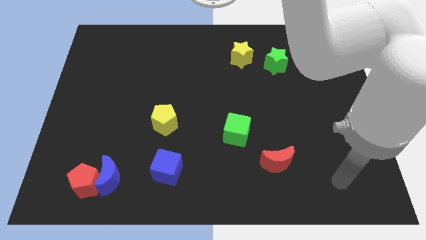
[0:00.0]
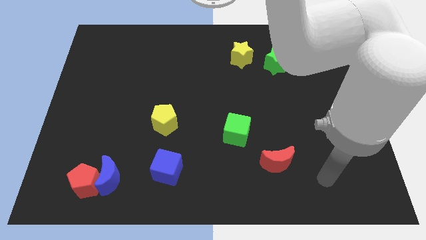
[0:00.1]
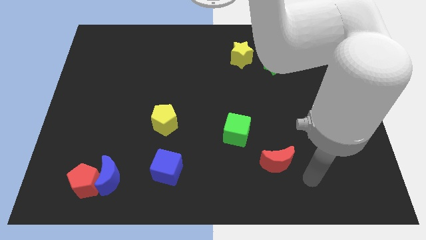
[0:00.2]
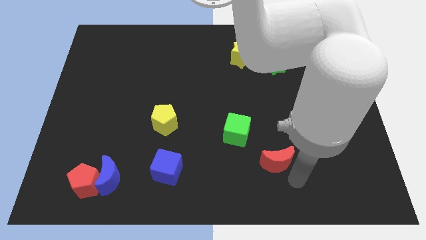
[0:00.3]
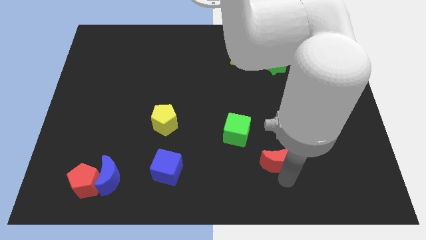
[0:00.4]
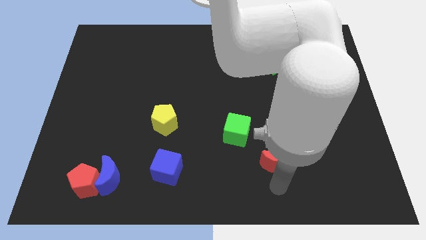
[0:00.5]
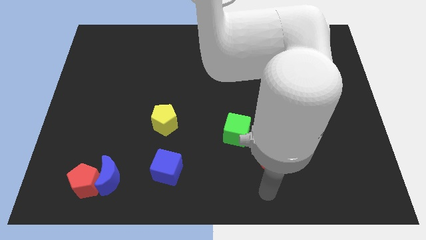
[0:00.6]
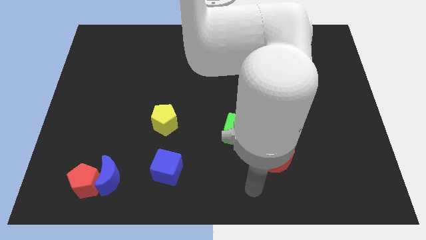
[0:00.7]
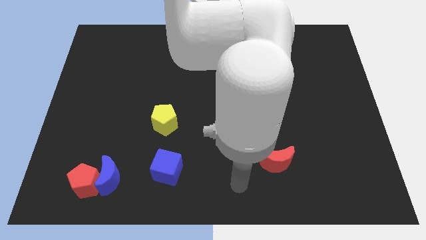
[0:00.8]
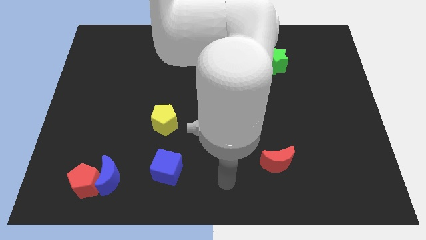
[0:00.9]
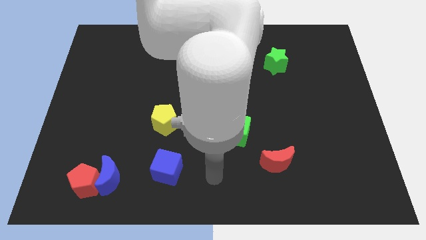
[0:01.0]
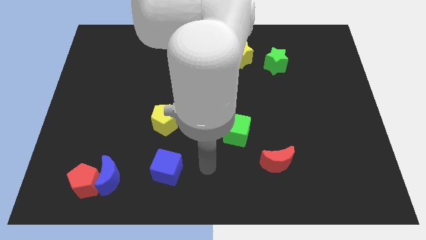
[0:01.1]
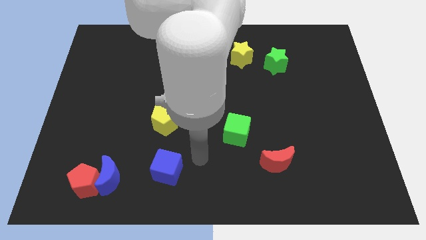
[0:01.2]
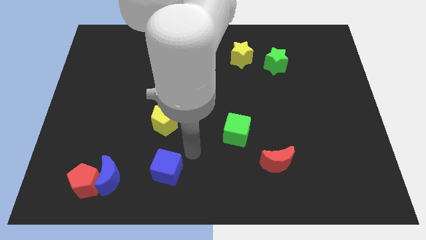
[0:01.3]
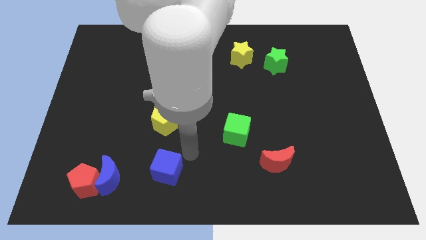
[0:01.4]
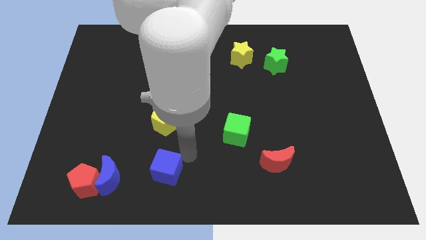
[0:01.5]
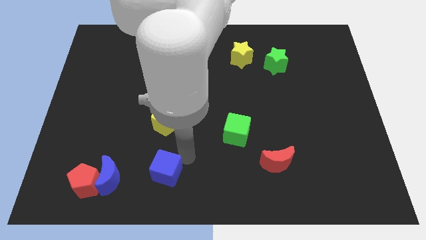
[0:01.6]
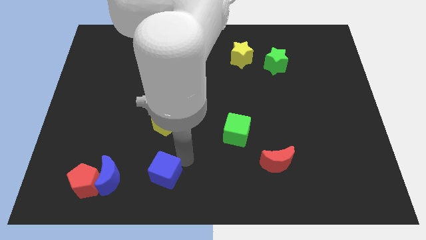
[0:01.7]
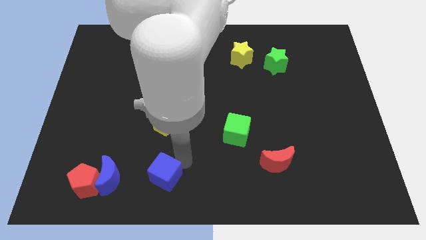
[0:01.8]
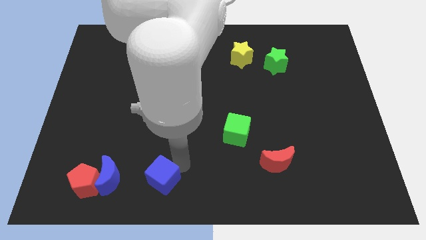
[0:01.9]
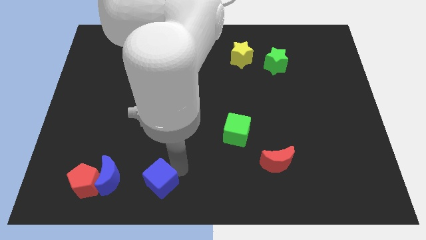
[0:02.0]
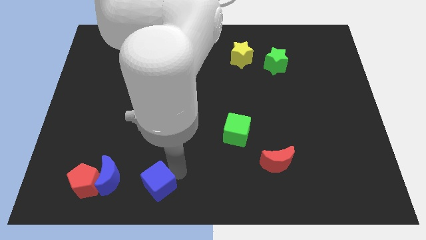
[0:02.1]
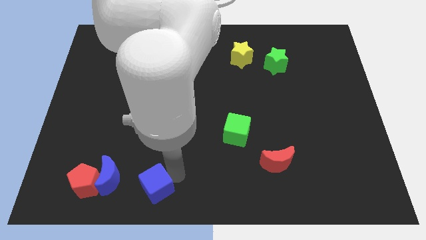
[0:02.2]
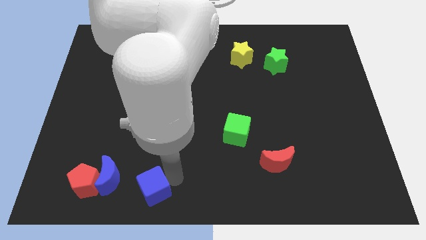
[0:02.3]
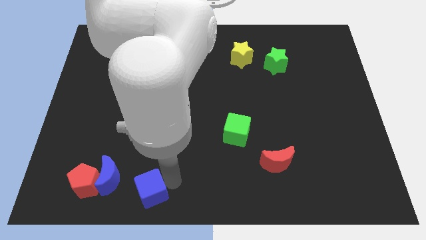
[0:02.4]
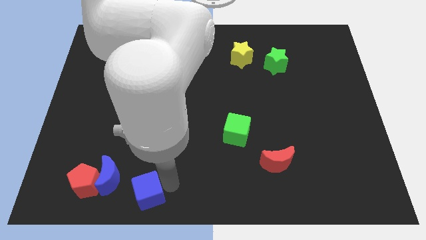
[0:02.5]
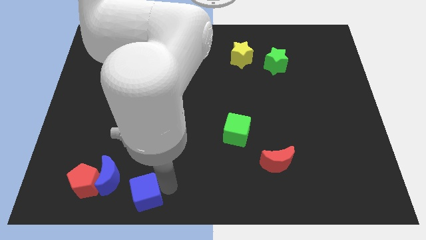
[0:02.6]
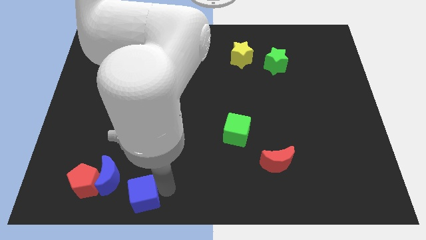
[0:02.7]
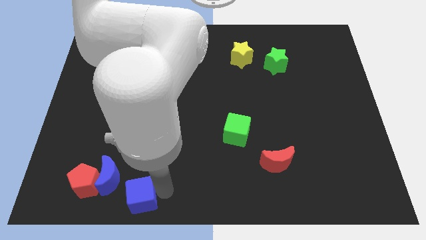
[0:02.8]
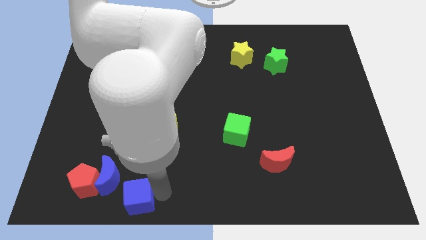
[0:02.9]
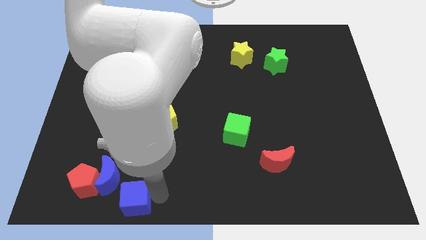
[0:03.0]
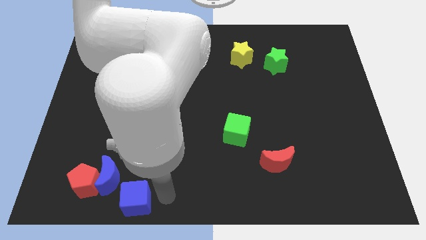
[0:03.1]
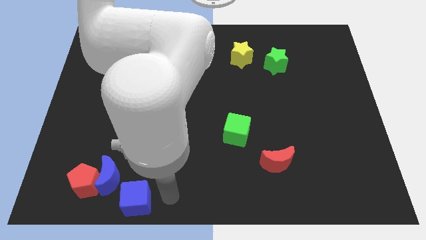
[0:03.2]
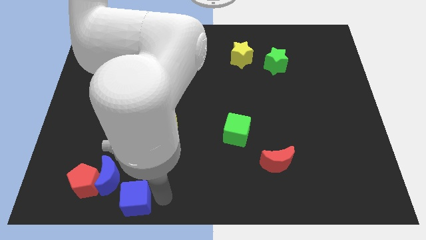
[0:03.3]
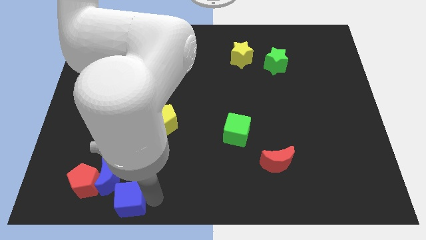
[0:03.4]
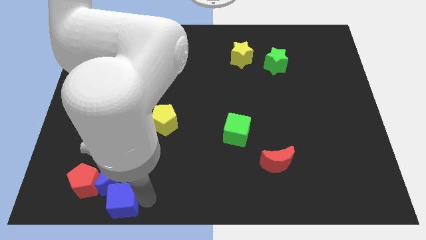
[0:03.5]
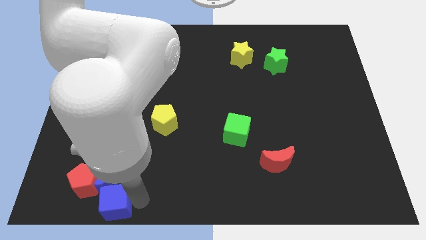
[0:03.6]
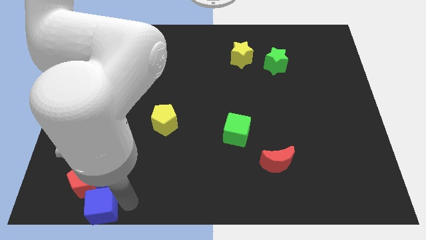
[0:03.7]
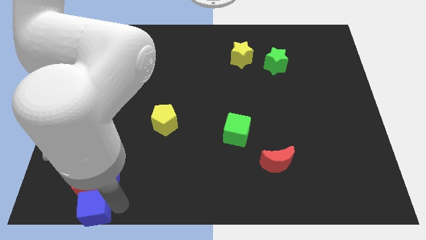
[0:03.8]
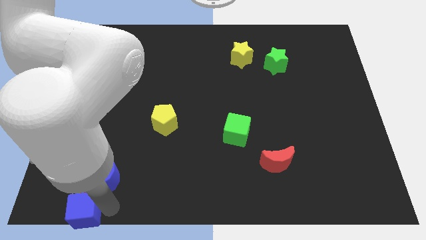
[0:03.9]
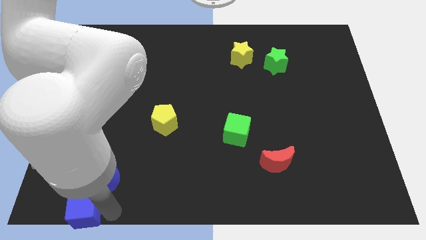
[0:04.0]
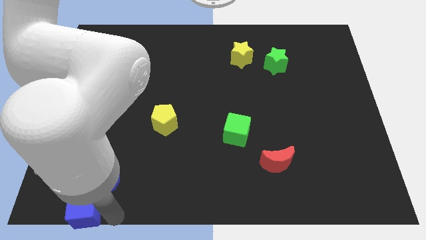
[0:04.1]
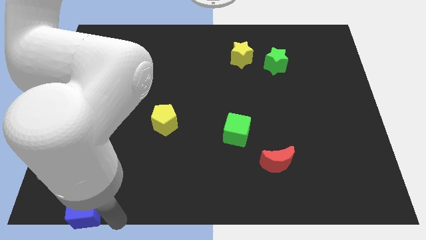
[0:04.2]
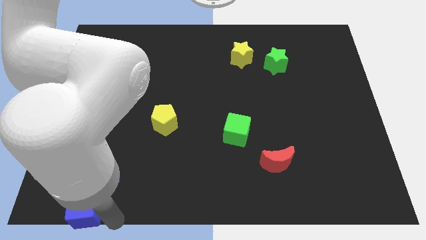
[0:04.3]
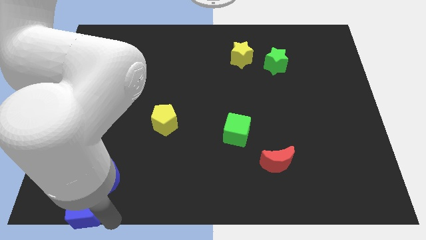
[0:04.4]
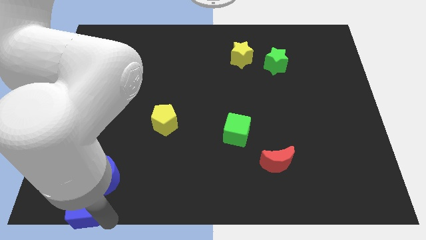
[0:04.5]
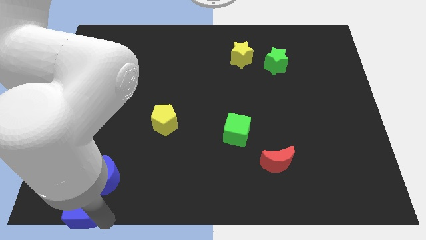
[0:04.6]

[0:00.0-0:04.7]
move the blue cube to the bottom left corner

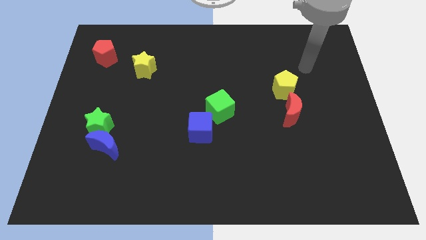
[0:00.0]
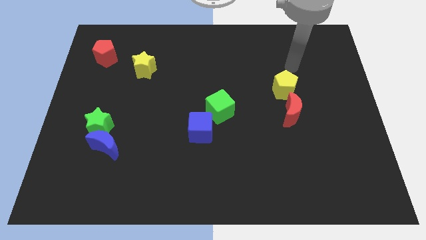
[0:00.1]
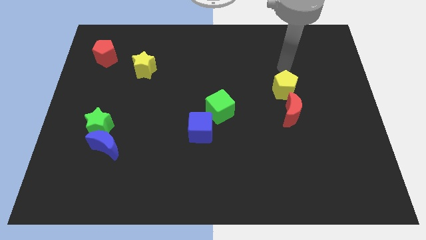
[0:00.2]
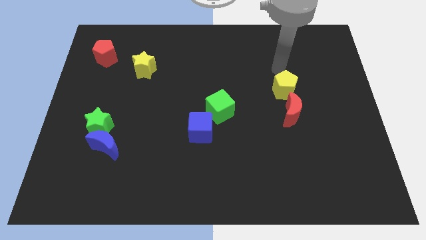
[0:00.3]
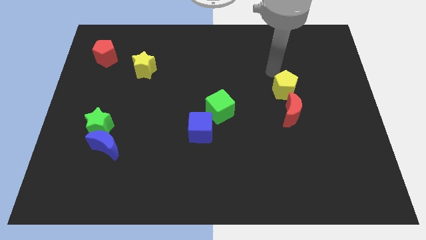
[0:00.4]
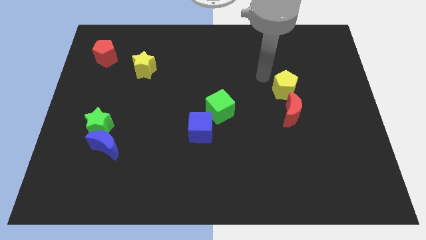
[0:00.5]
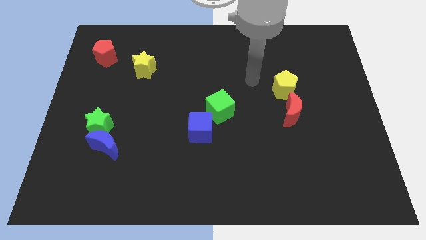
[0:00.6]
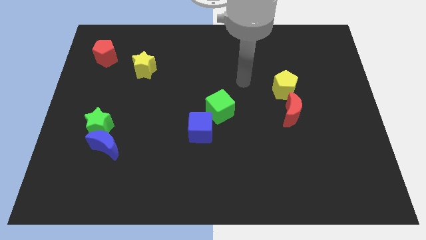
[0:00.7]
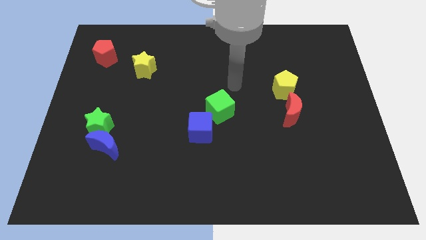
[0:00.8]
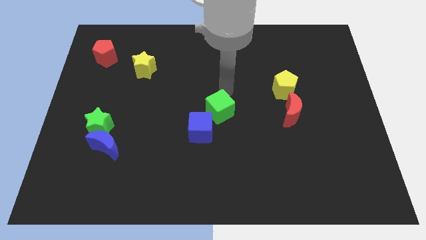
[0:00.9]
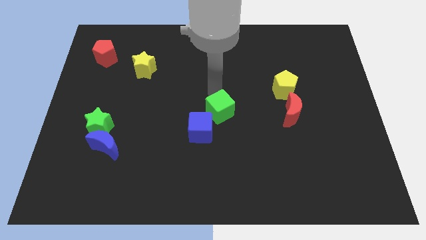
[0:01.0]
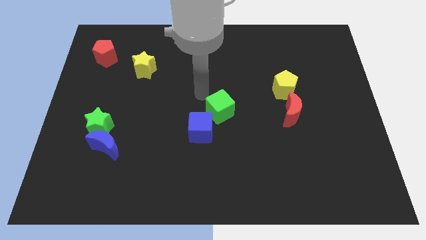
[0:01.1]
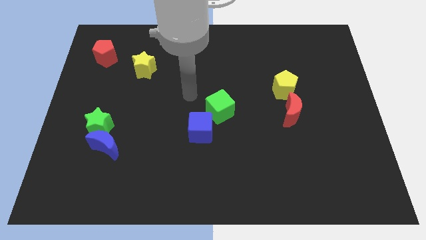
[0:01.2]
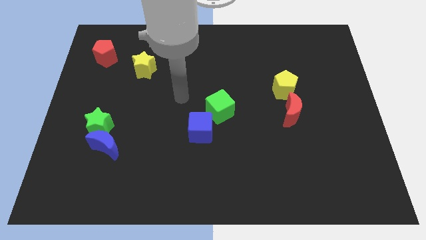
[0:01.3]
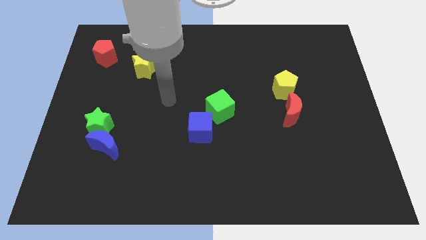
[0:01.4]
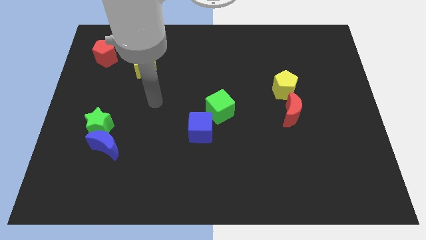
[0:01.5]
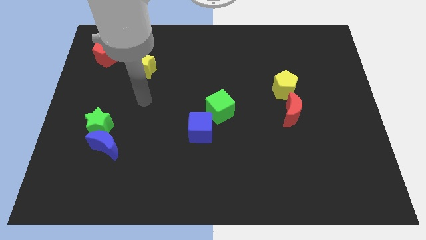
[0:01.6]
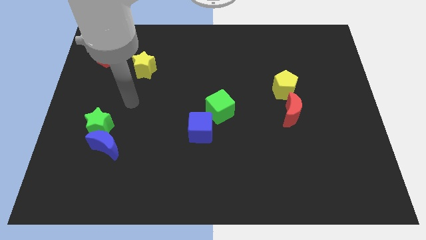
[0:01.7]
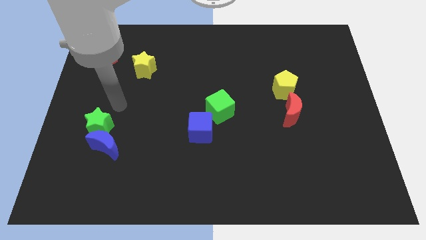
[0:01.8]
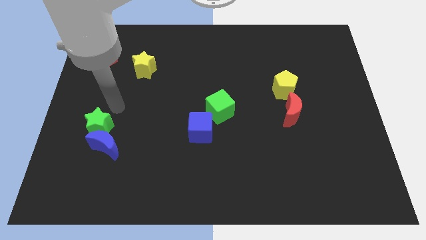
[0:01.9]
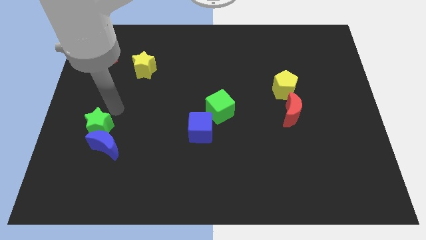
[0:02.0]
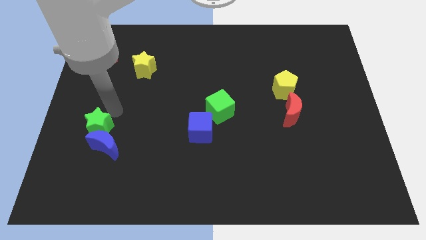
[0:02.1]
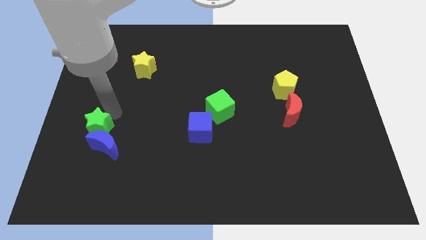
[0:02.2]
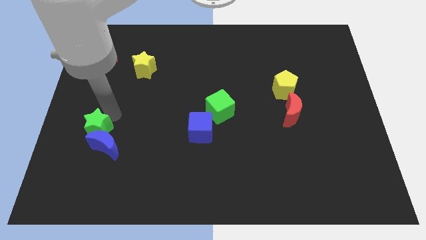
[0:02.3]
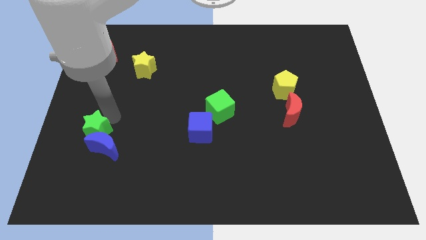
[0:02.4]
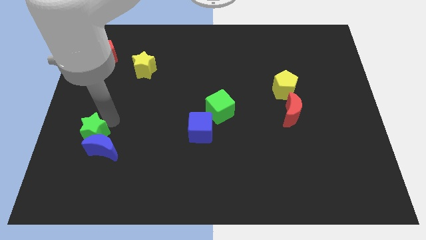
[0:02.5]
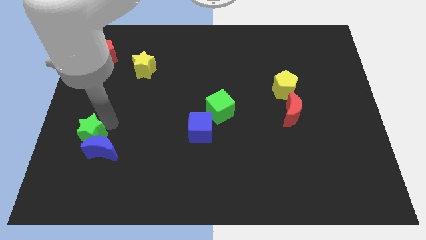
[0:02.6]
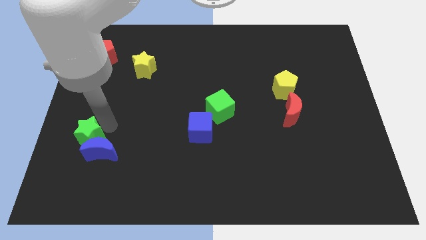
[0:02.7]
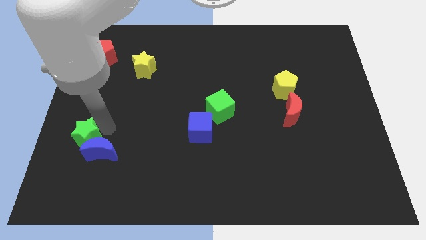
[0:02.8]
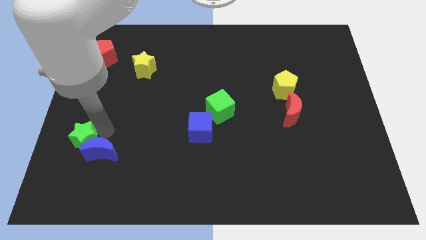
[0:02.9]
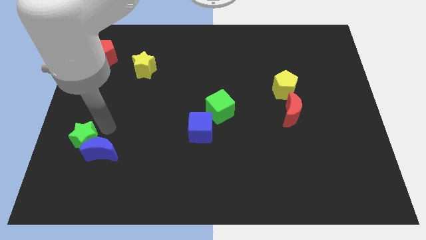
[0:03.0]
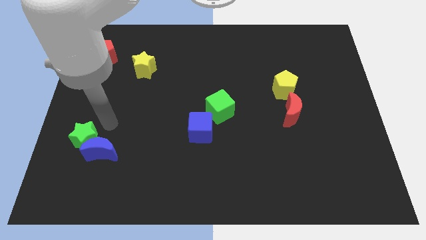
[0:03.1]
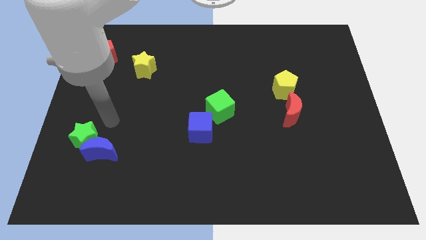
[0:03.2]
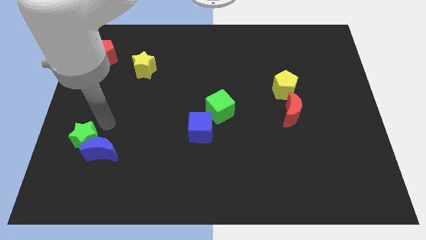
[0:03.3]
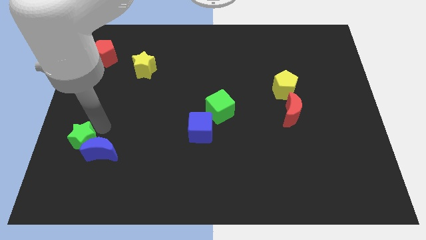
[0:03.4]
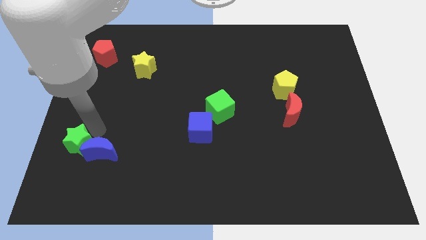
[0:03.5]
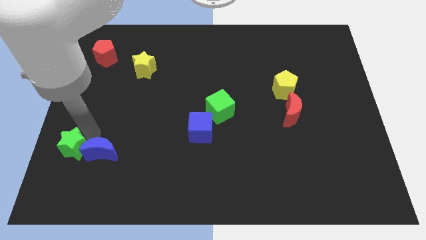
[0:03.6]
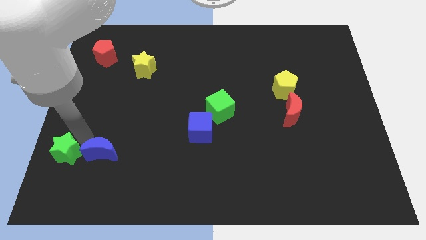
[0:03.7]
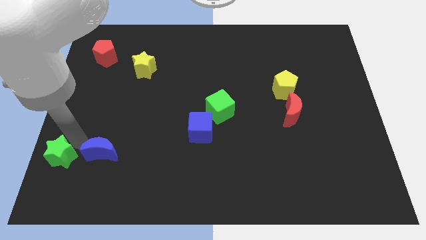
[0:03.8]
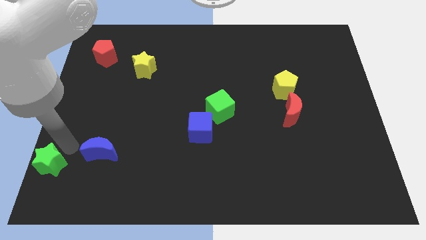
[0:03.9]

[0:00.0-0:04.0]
move the green star to the bottom left

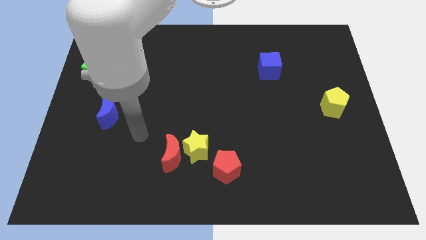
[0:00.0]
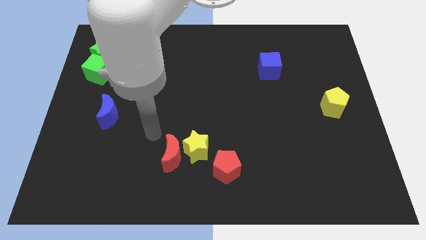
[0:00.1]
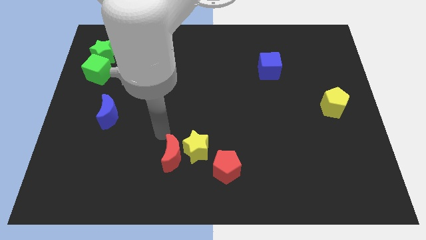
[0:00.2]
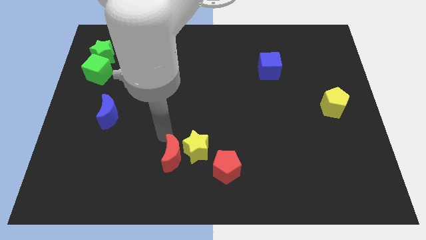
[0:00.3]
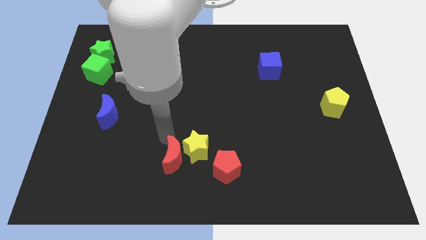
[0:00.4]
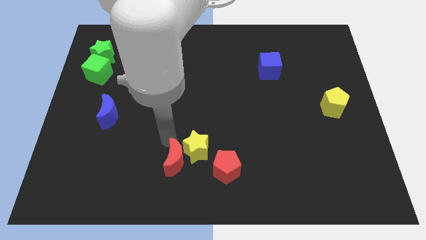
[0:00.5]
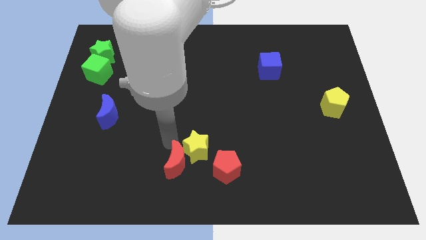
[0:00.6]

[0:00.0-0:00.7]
move the red moon to the bottom side
